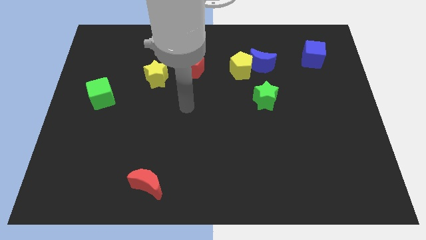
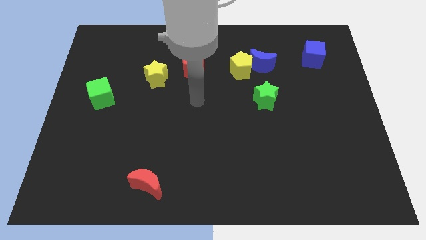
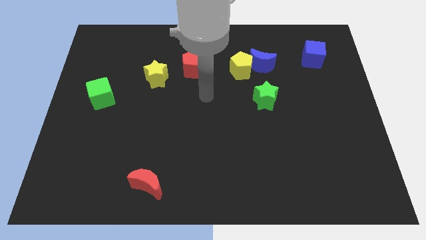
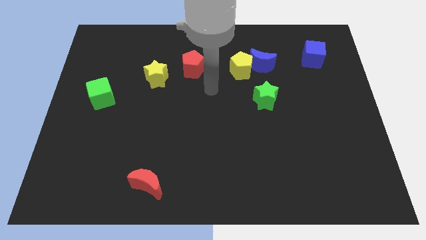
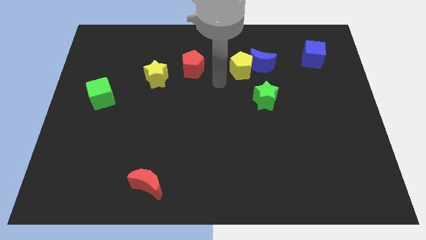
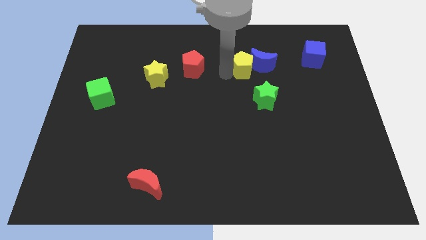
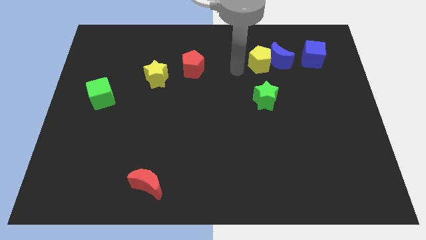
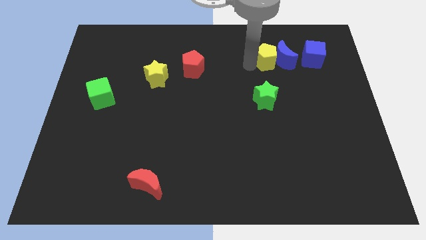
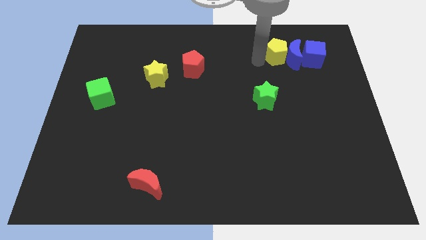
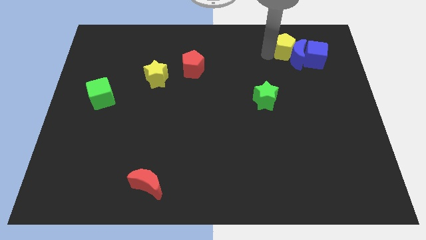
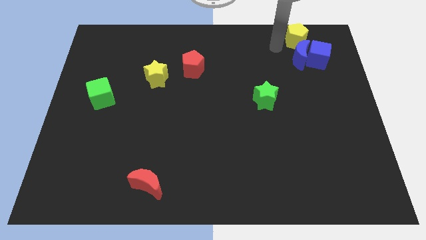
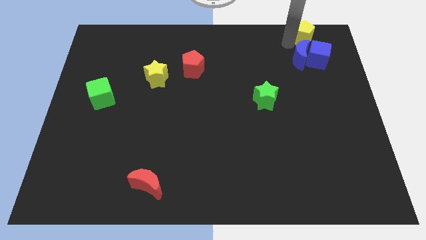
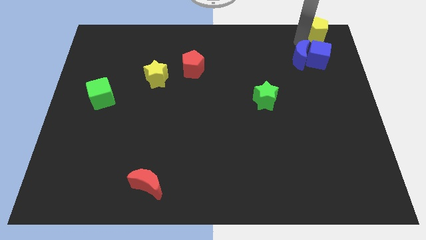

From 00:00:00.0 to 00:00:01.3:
separate the blue moon from the yellow pentagon

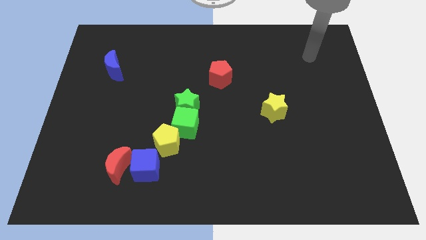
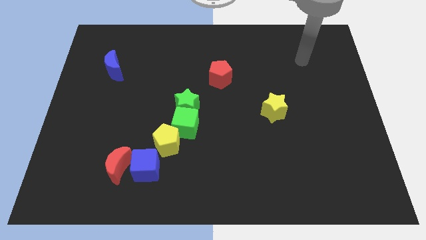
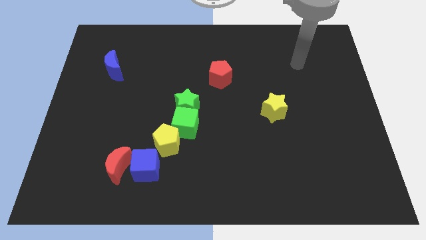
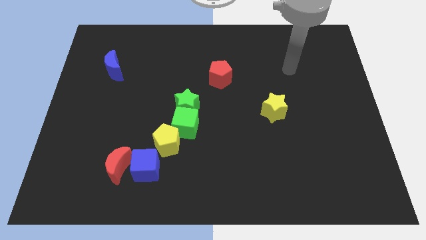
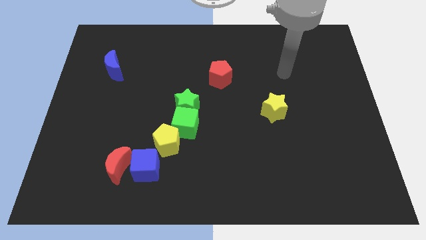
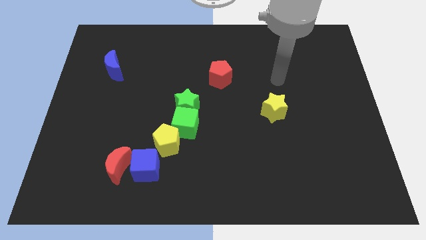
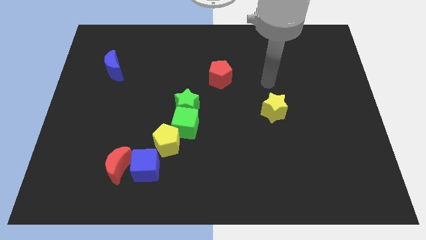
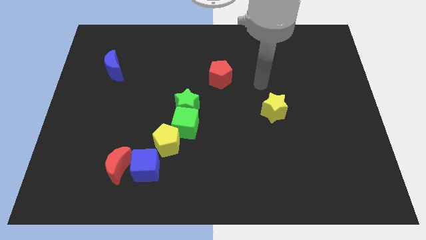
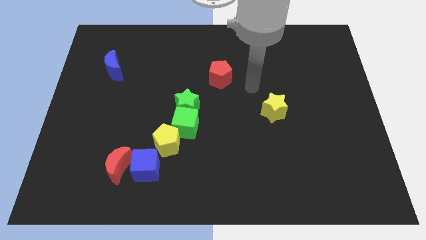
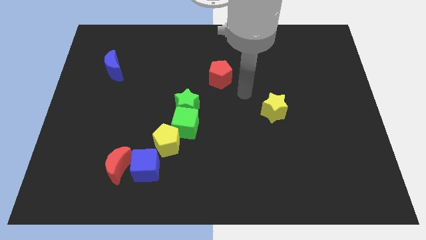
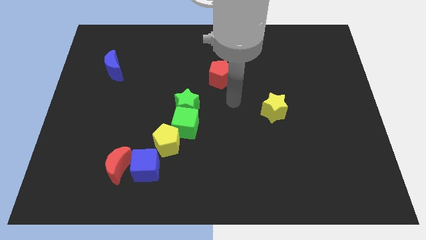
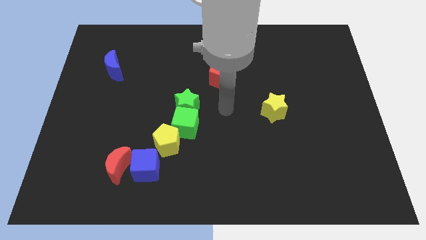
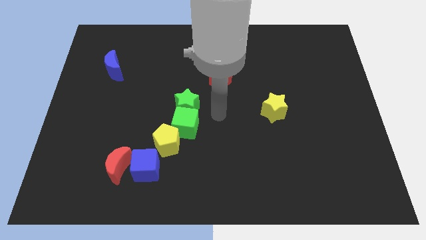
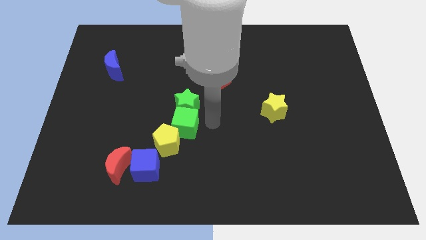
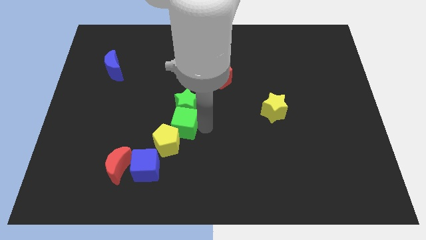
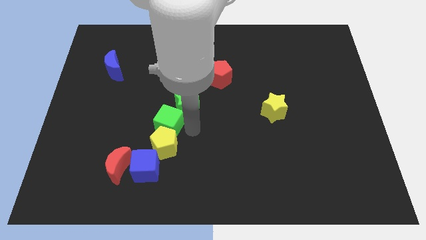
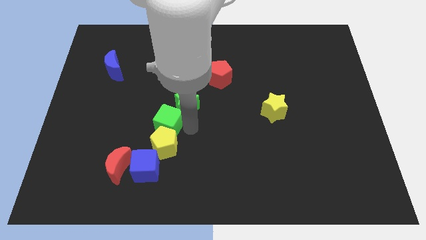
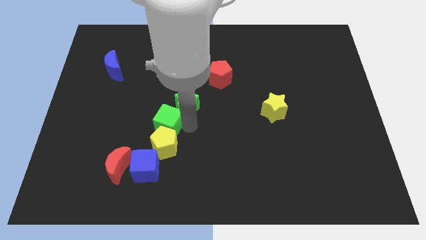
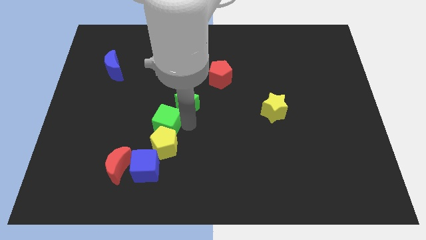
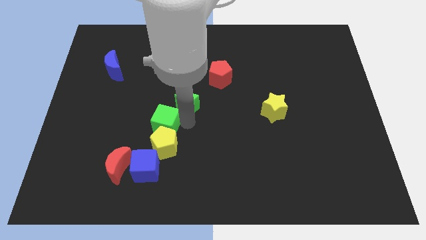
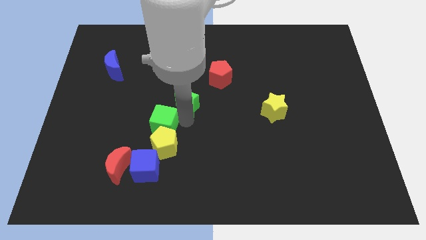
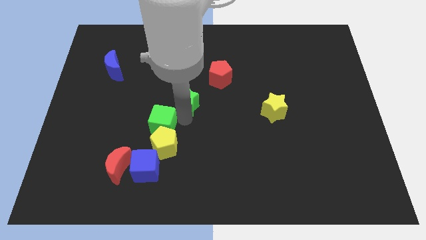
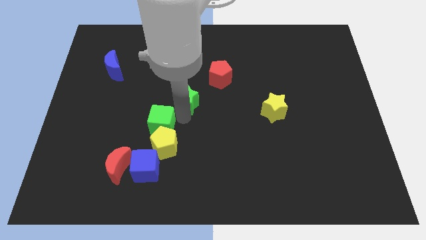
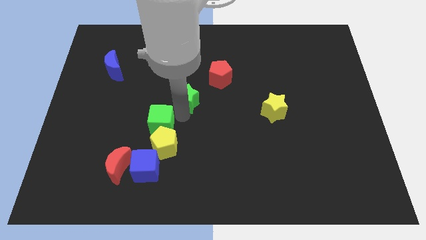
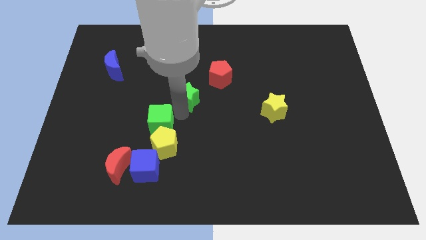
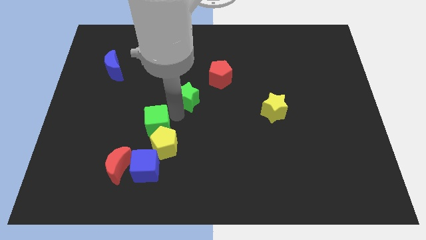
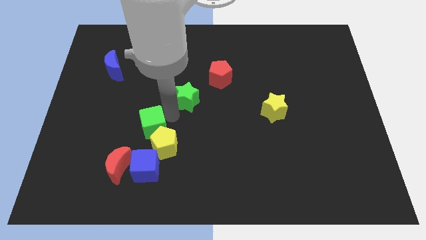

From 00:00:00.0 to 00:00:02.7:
move the green star away from the green cube

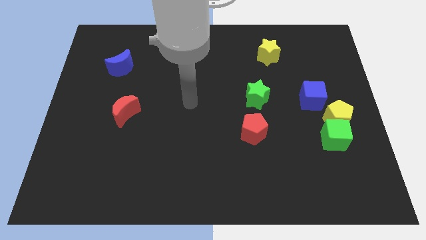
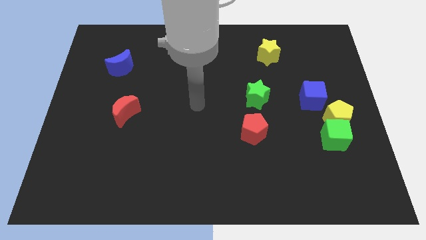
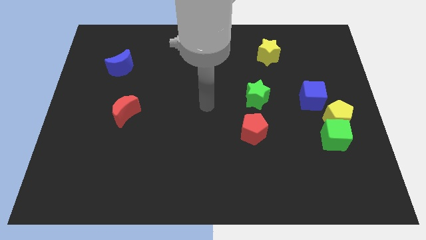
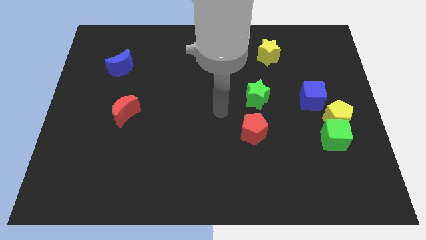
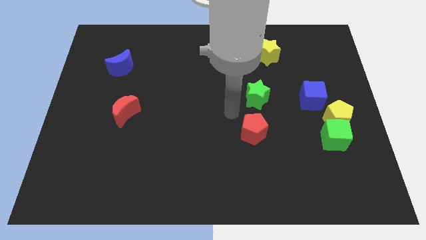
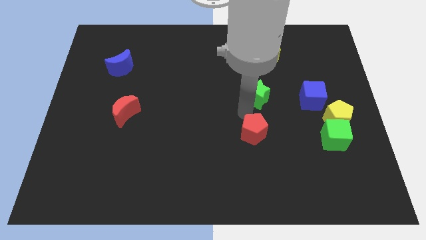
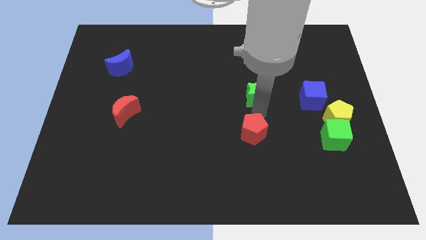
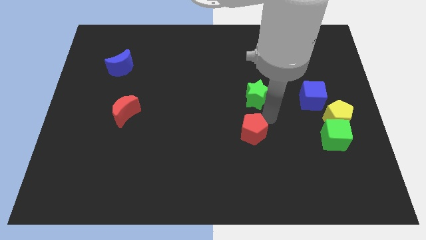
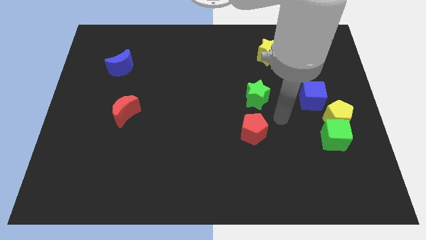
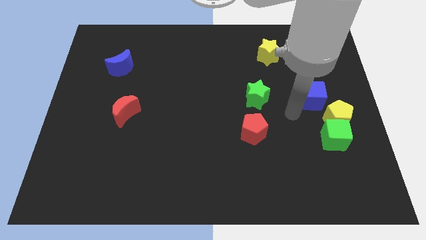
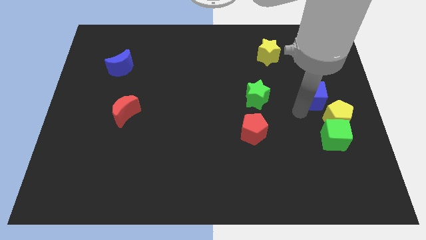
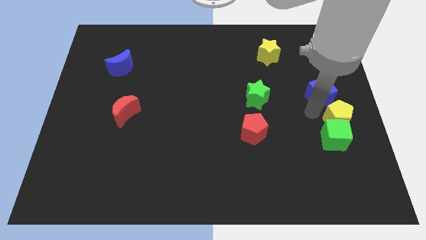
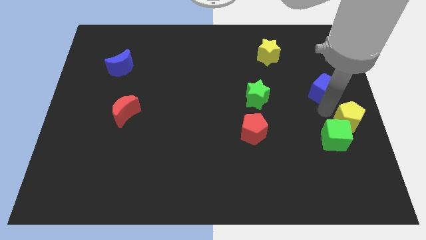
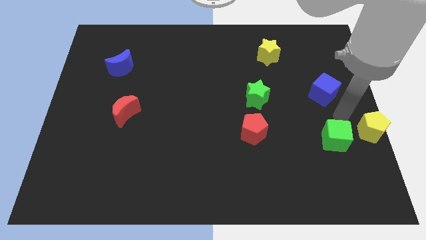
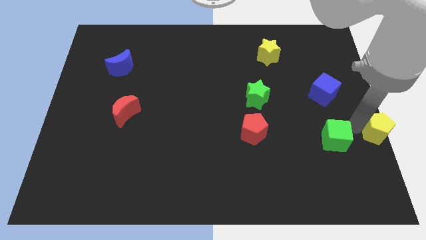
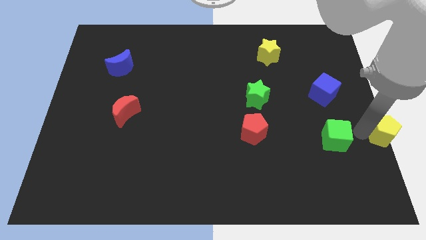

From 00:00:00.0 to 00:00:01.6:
move the green cube away from the yellow pentagon

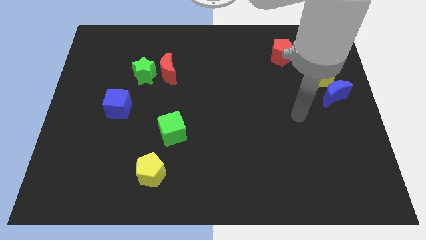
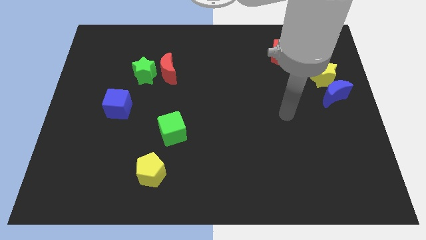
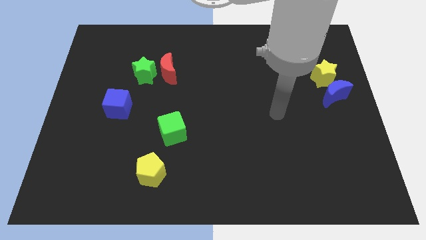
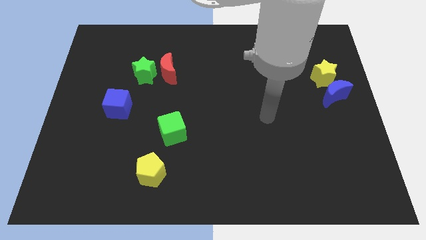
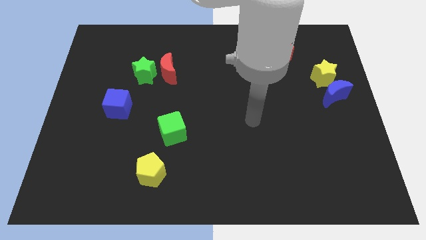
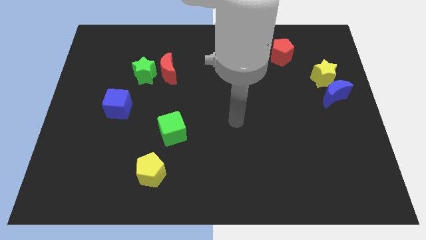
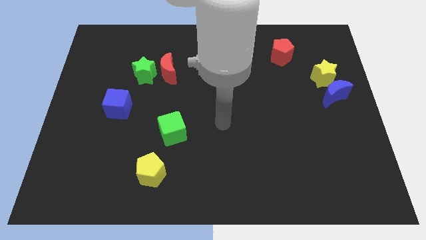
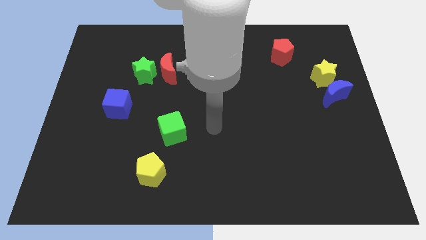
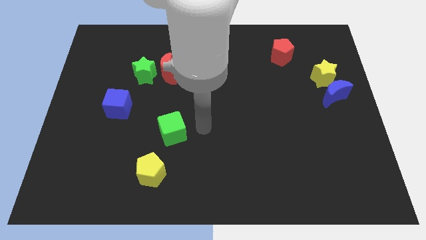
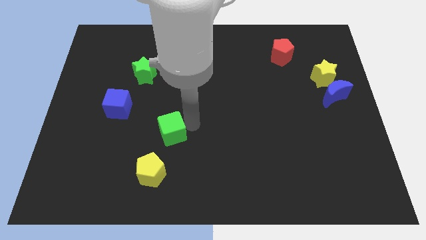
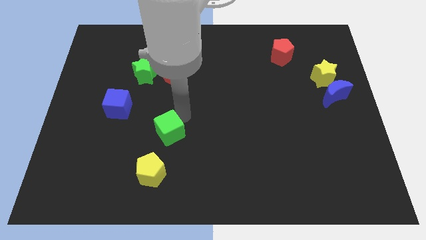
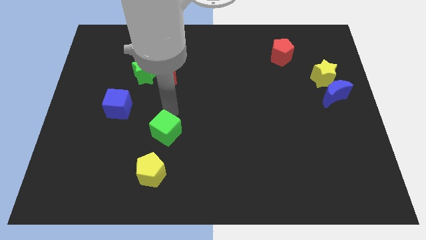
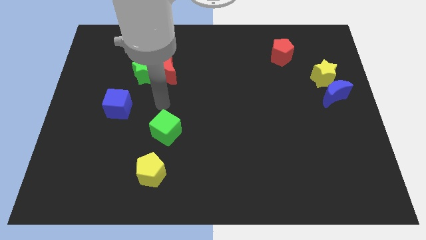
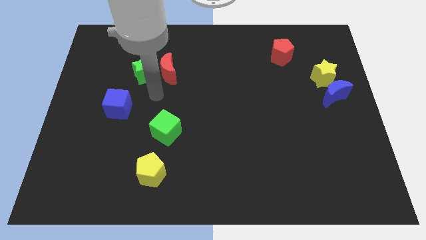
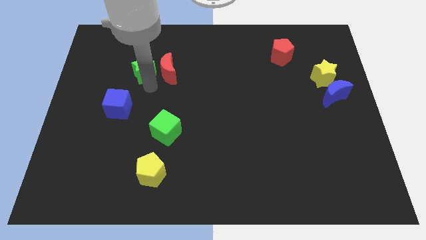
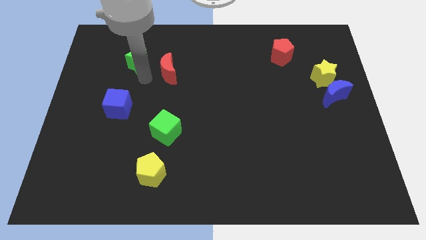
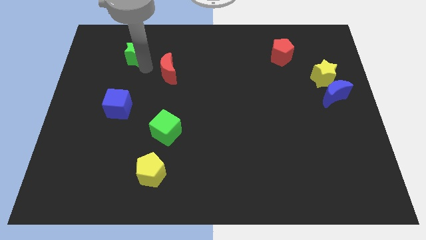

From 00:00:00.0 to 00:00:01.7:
pull the red moon apart from the green star

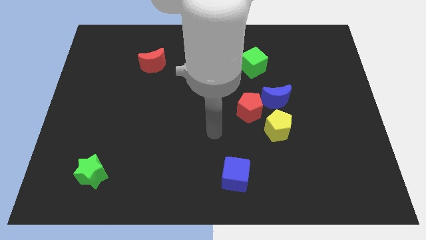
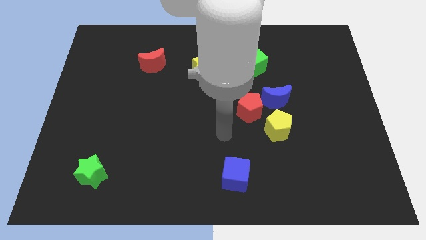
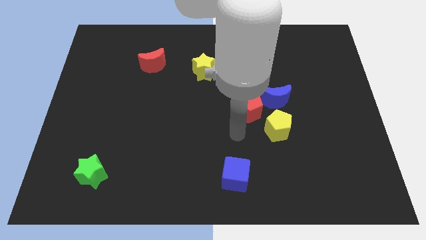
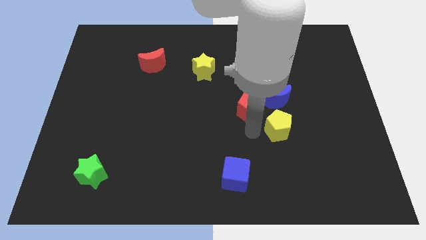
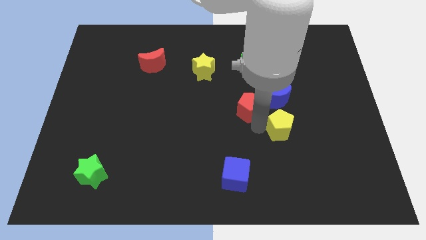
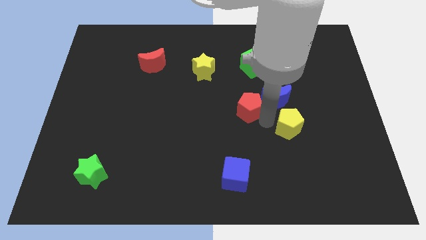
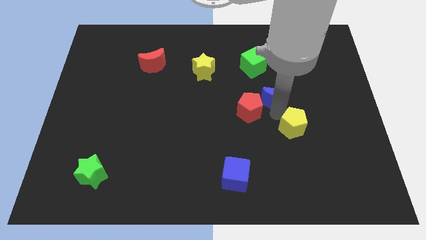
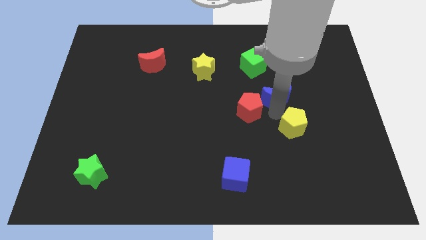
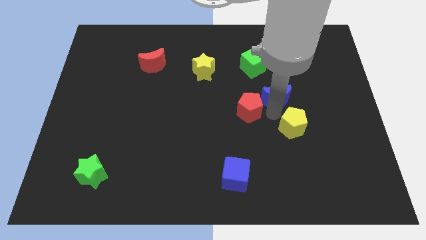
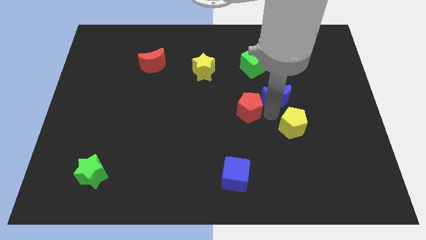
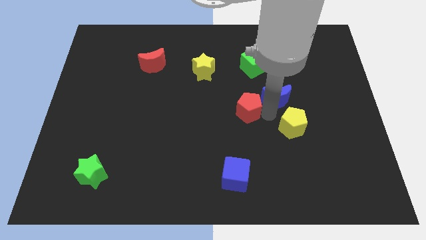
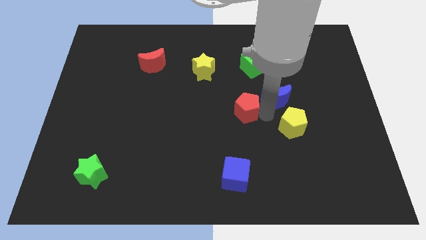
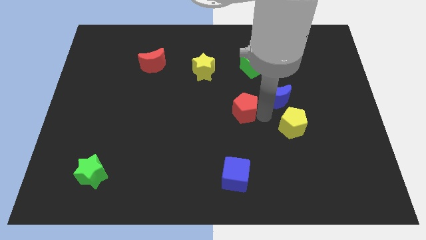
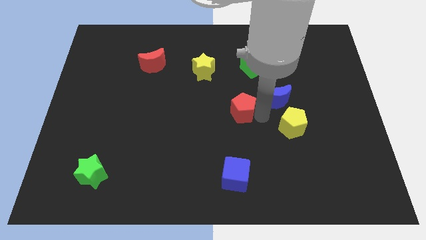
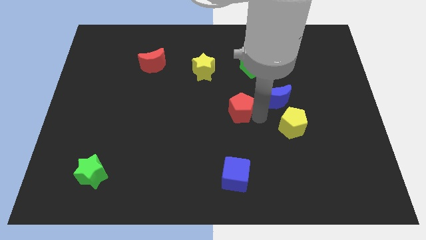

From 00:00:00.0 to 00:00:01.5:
move the red pentagon away from the blue moon and yellow pentagon

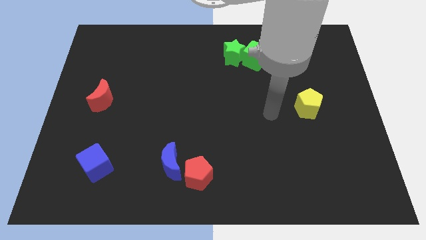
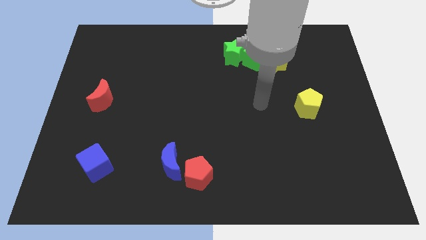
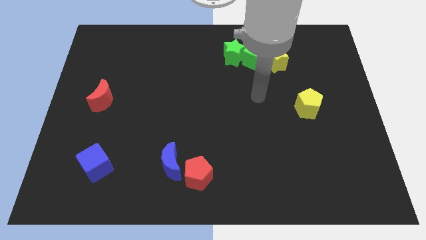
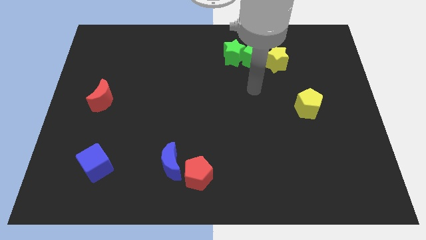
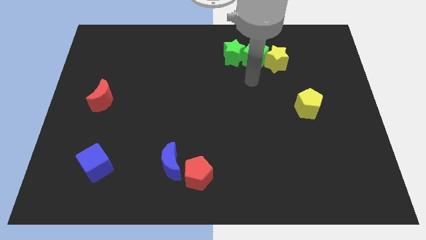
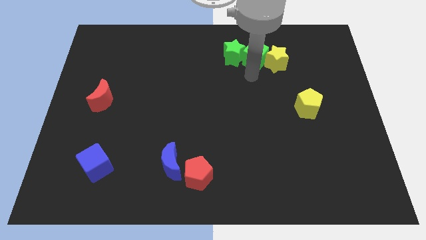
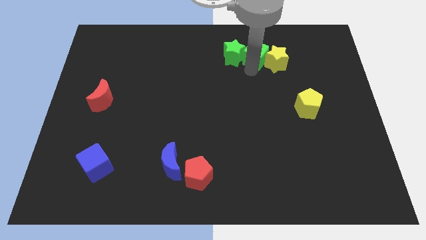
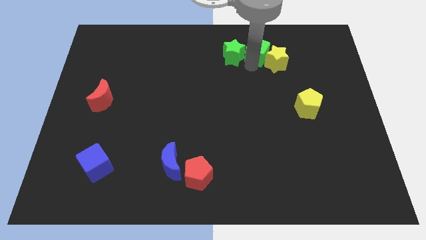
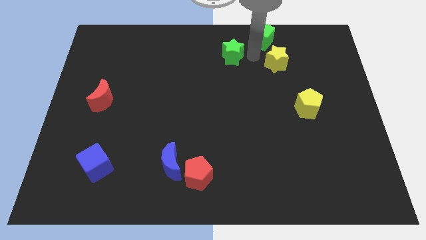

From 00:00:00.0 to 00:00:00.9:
move the yellow star away from the green cube
